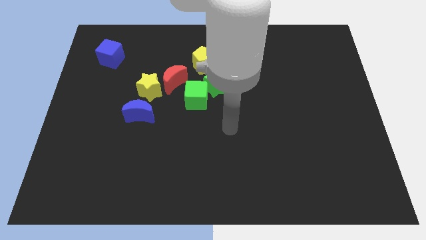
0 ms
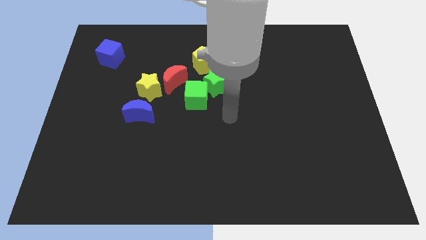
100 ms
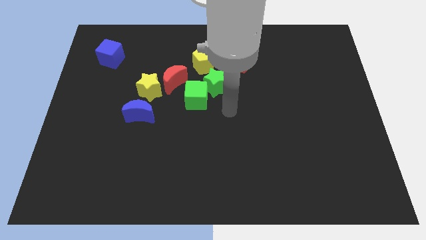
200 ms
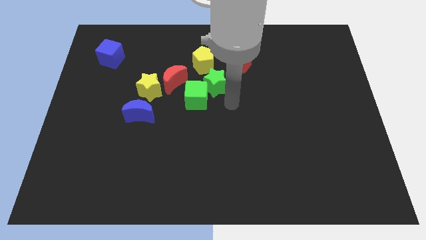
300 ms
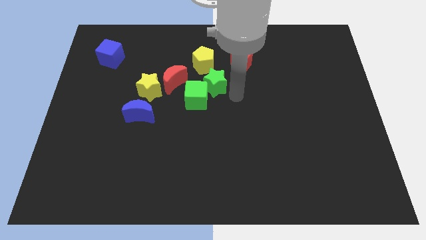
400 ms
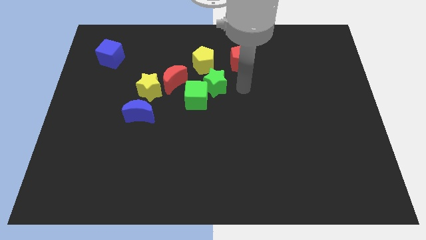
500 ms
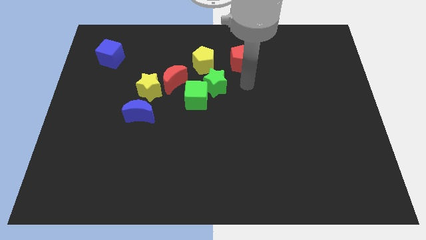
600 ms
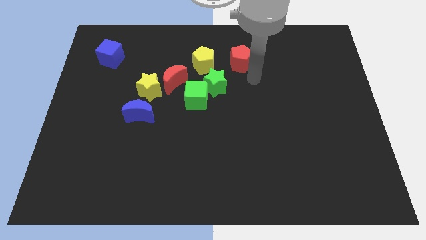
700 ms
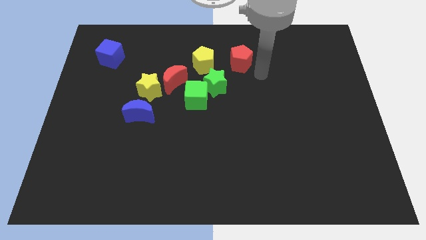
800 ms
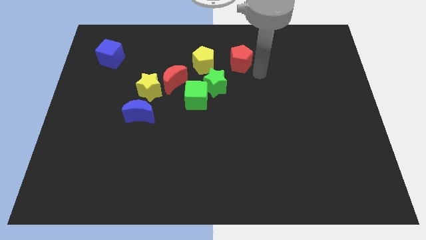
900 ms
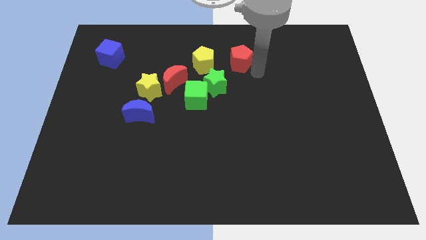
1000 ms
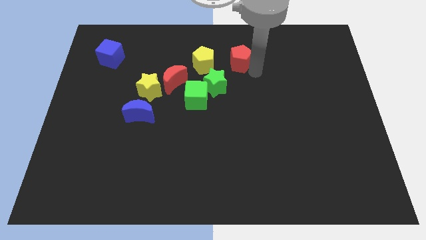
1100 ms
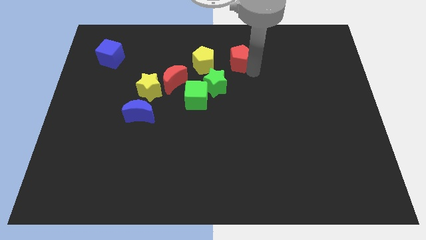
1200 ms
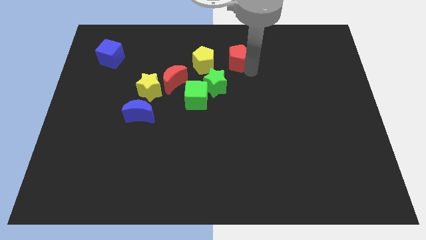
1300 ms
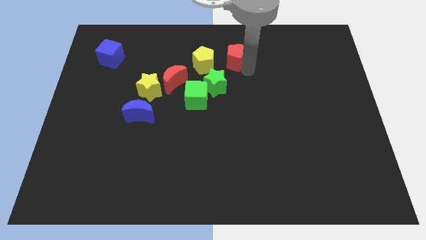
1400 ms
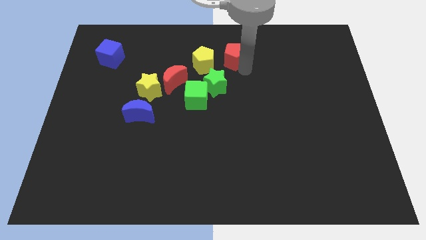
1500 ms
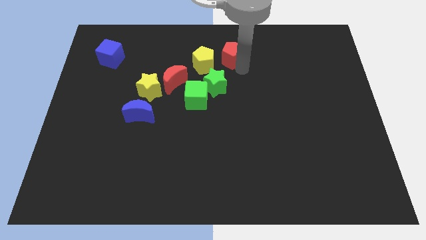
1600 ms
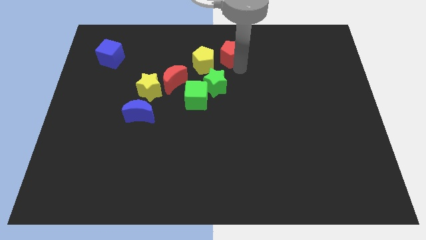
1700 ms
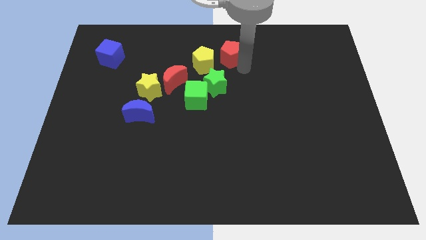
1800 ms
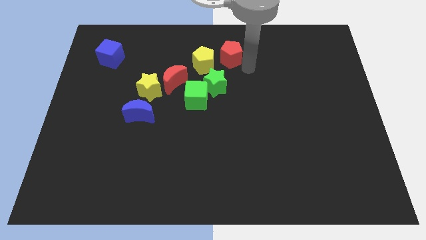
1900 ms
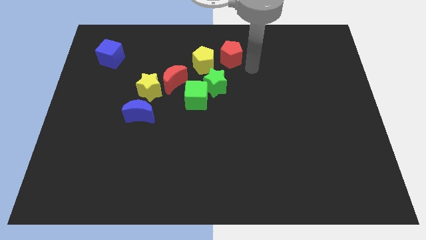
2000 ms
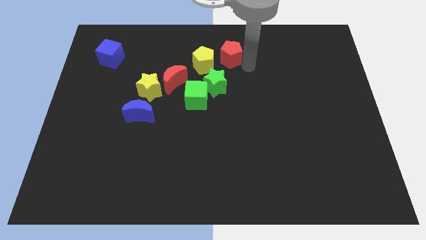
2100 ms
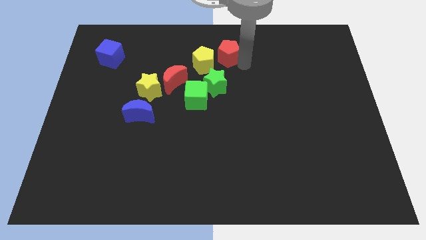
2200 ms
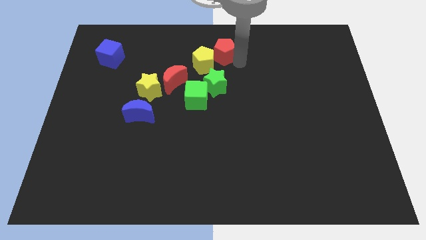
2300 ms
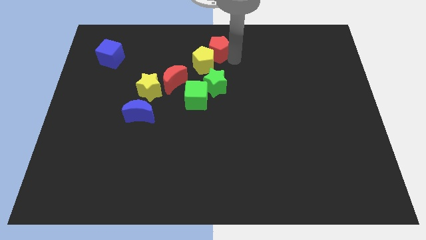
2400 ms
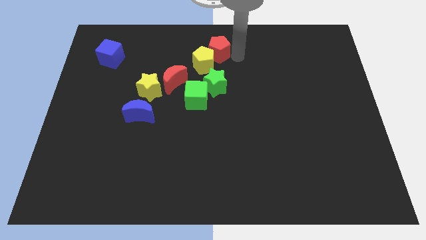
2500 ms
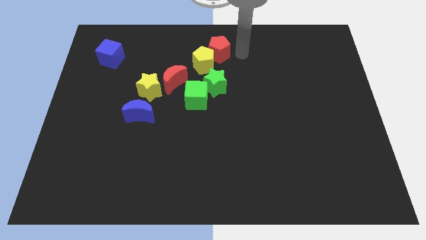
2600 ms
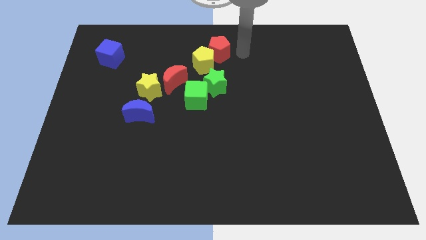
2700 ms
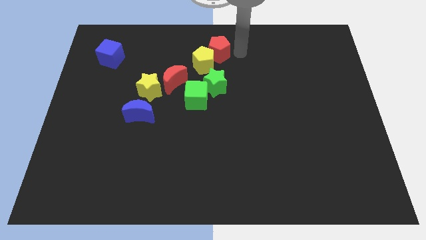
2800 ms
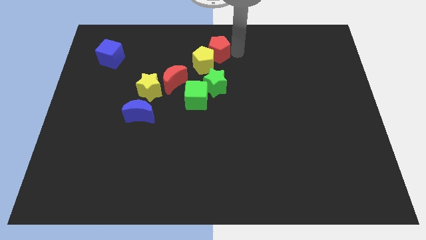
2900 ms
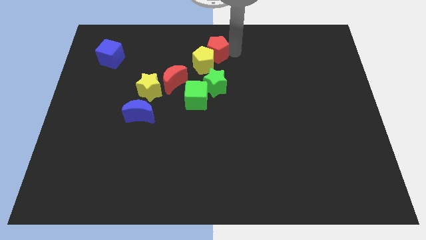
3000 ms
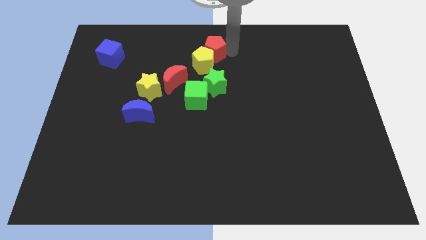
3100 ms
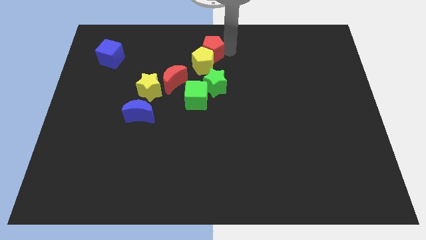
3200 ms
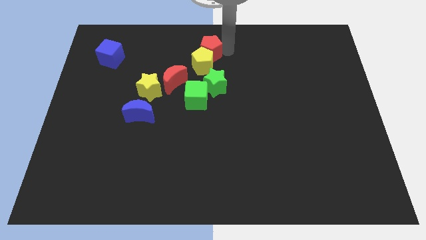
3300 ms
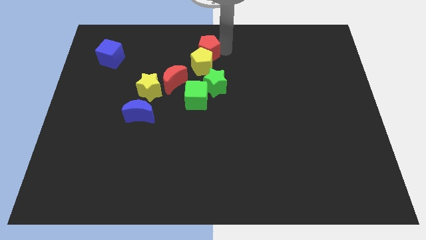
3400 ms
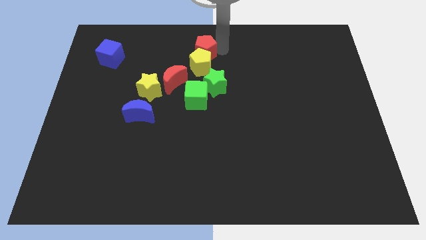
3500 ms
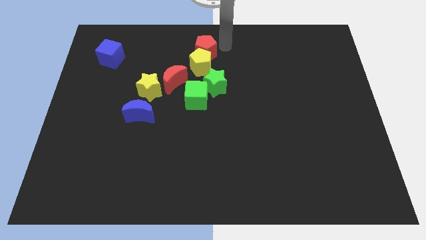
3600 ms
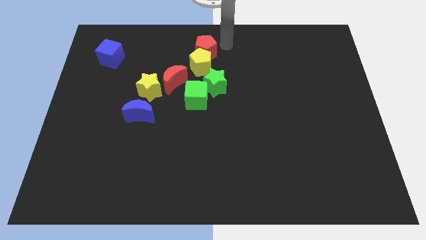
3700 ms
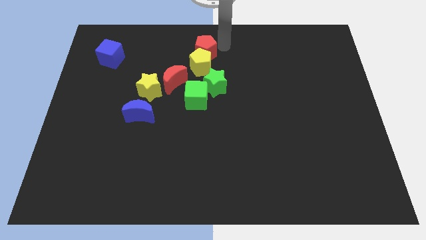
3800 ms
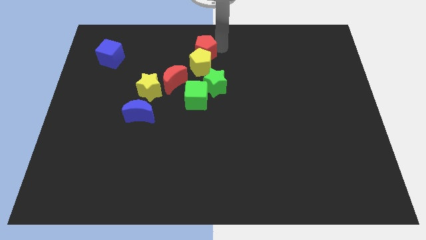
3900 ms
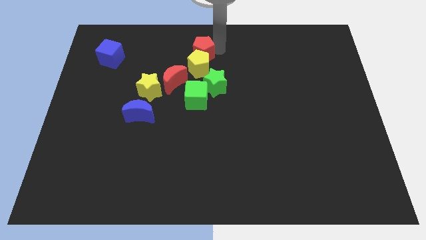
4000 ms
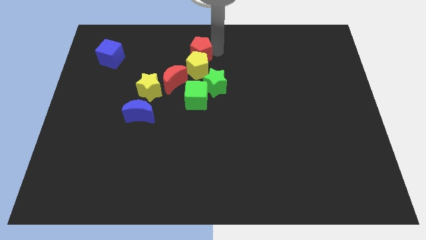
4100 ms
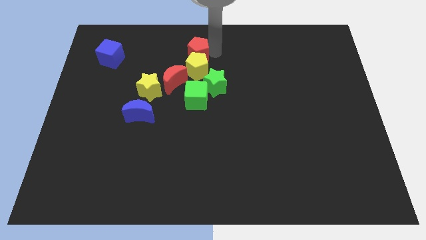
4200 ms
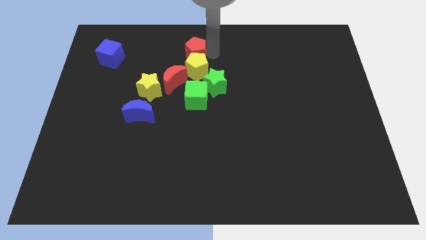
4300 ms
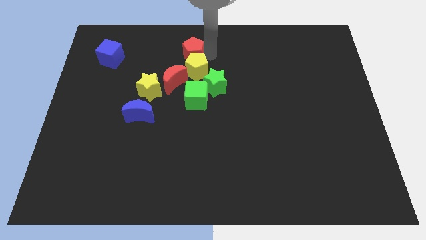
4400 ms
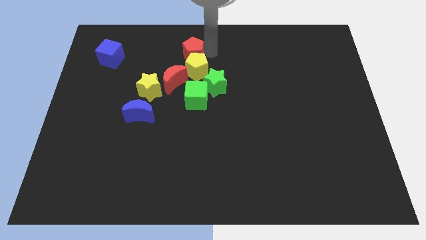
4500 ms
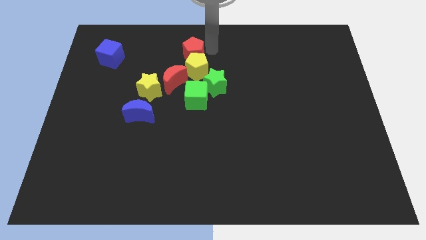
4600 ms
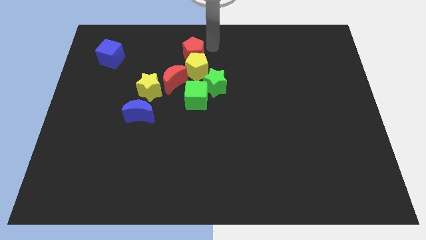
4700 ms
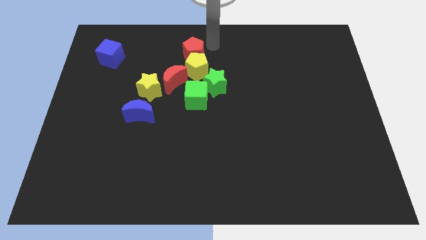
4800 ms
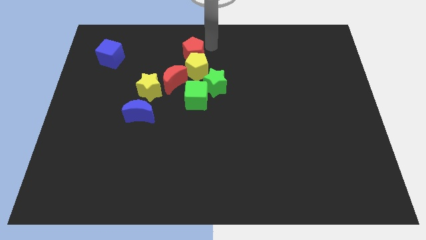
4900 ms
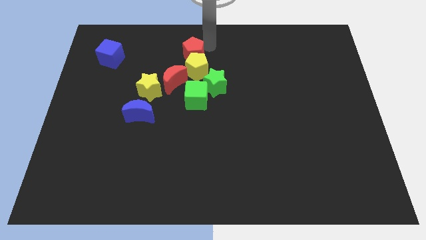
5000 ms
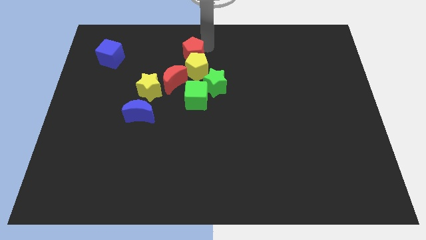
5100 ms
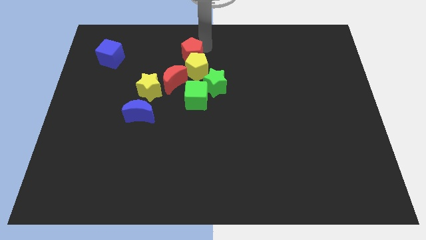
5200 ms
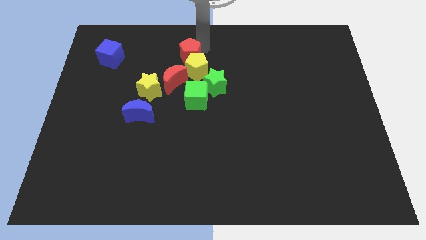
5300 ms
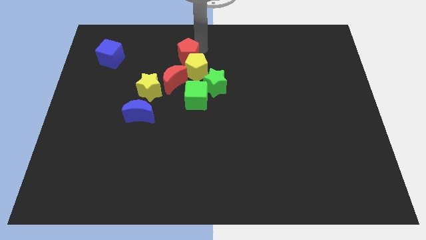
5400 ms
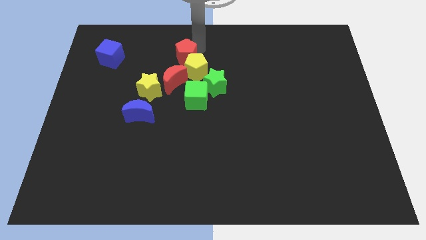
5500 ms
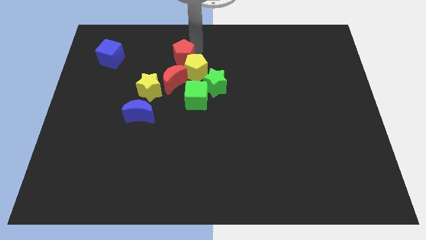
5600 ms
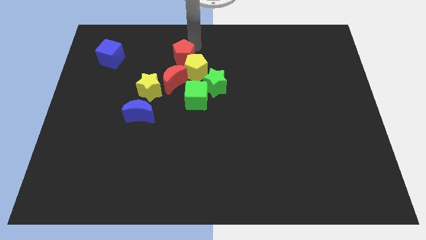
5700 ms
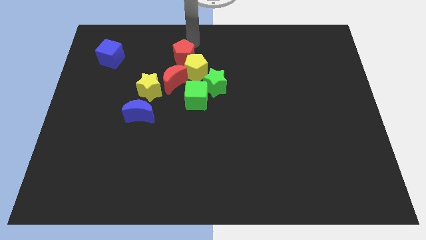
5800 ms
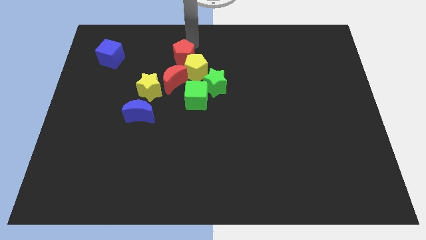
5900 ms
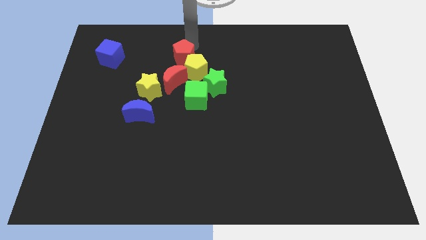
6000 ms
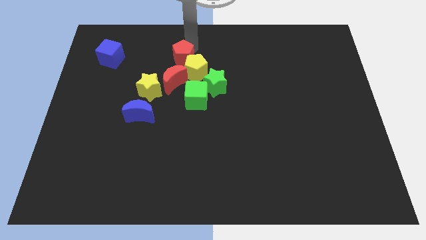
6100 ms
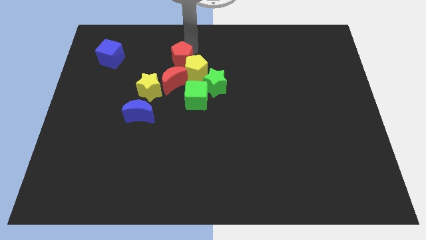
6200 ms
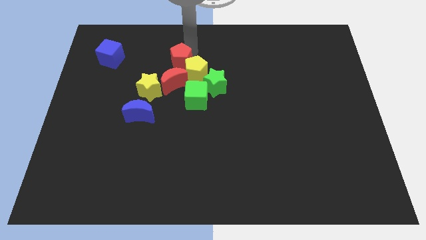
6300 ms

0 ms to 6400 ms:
move the red pentagon diagonally up and to the right of the yellow star
